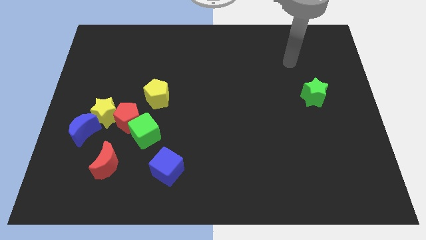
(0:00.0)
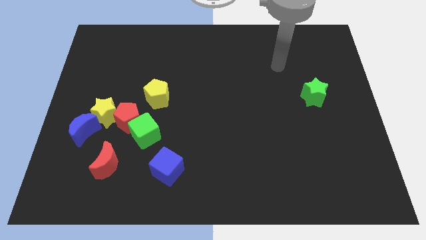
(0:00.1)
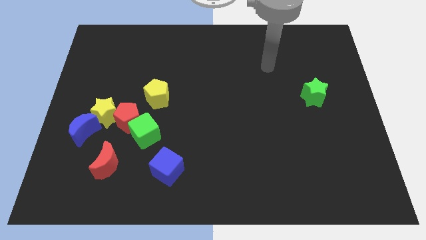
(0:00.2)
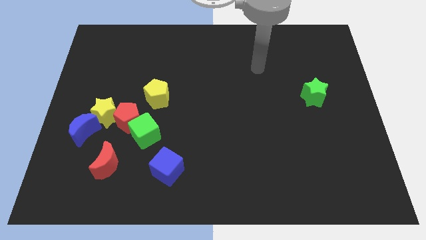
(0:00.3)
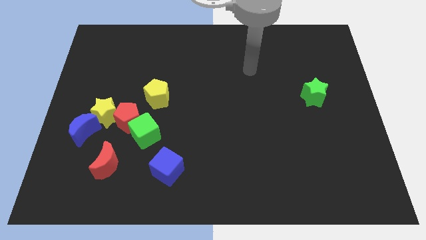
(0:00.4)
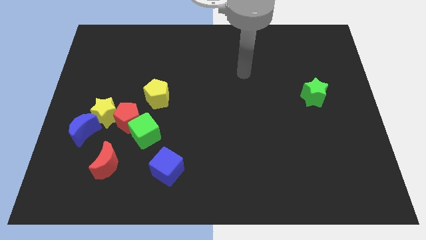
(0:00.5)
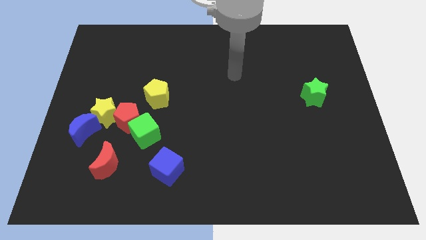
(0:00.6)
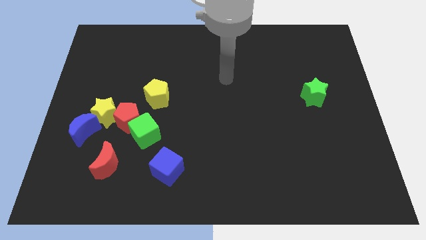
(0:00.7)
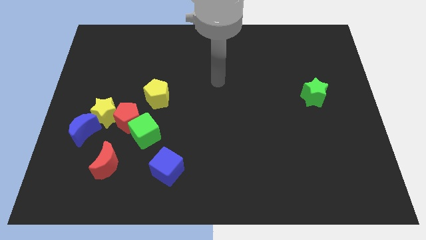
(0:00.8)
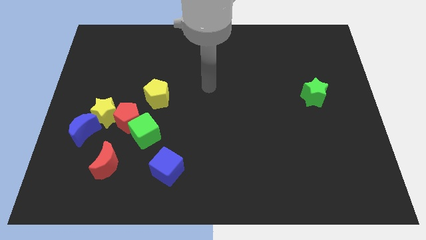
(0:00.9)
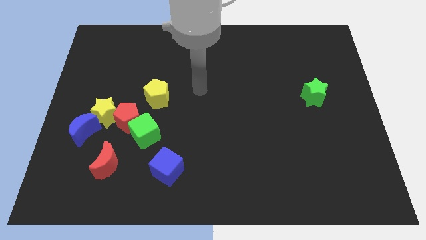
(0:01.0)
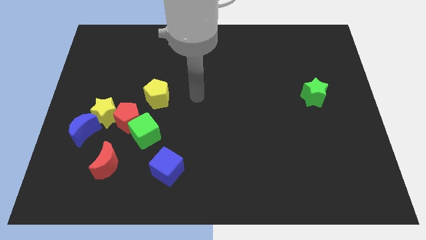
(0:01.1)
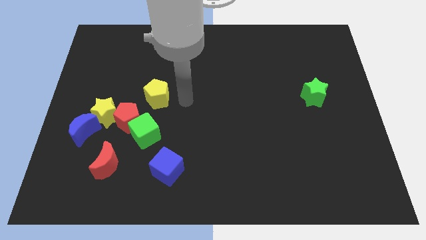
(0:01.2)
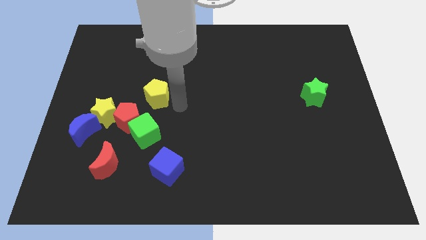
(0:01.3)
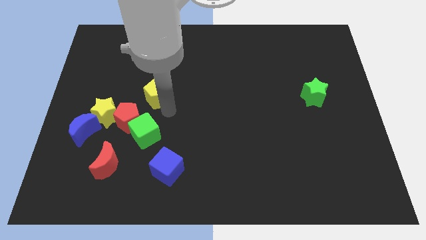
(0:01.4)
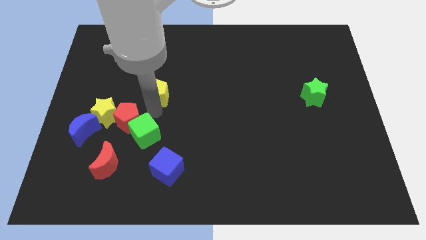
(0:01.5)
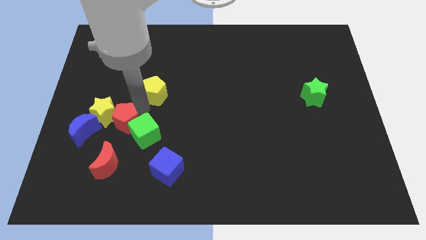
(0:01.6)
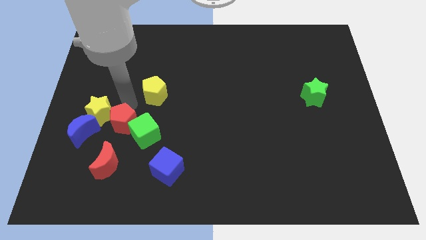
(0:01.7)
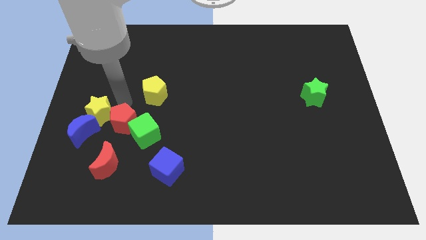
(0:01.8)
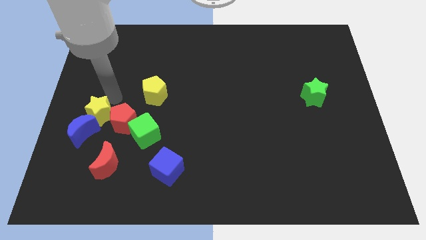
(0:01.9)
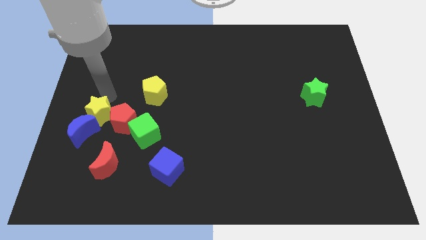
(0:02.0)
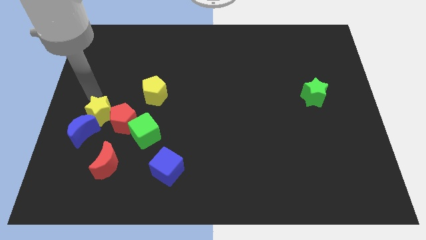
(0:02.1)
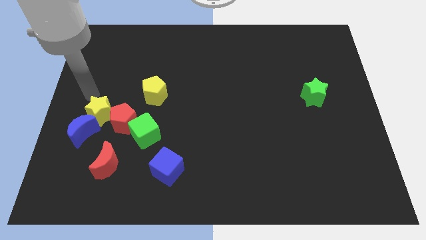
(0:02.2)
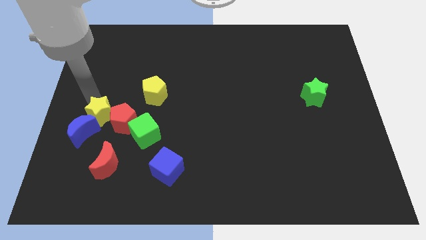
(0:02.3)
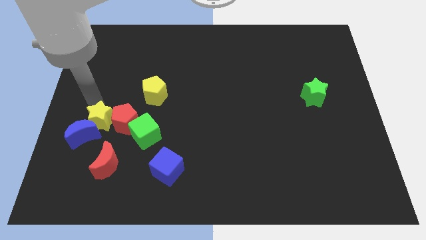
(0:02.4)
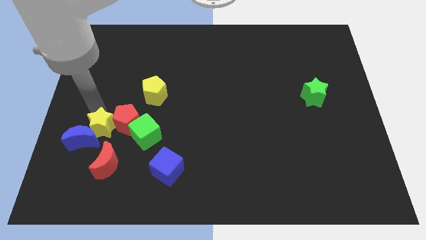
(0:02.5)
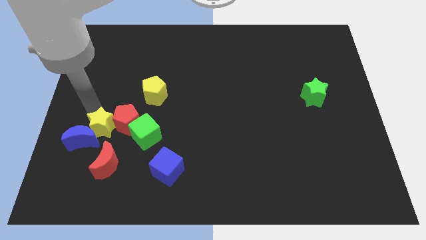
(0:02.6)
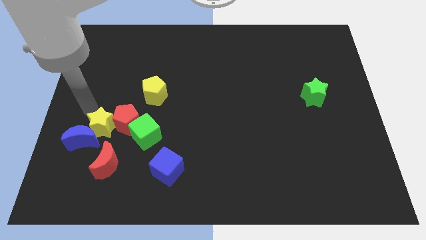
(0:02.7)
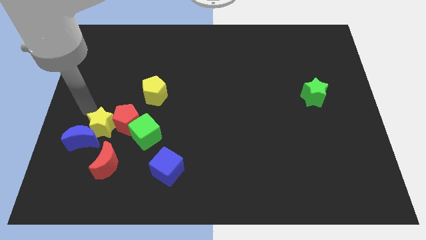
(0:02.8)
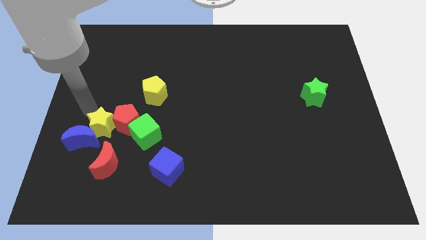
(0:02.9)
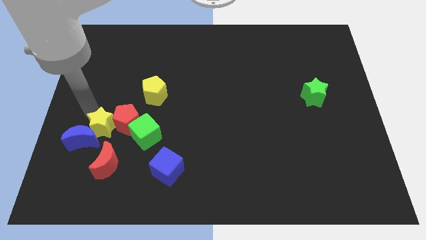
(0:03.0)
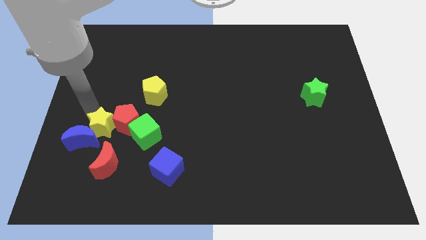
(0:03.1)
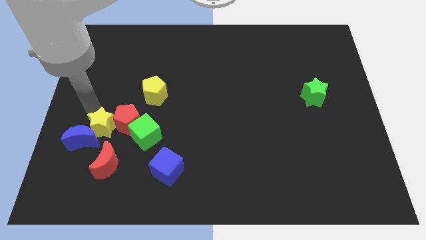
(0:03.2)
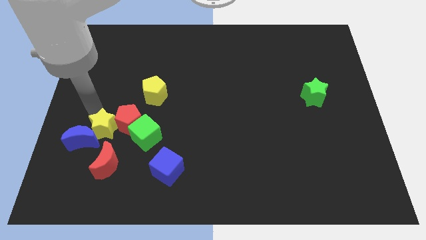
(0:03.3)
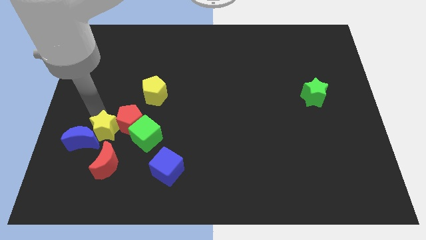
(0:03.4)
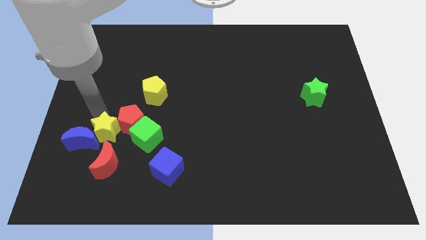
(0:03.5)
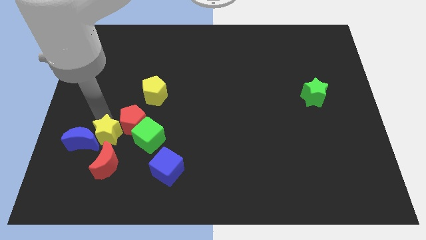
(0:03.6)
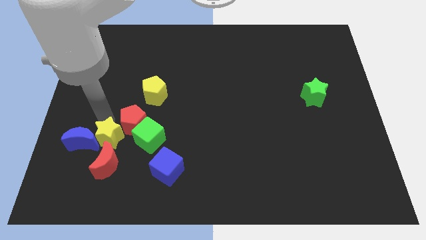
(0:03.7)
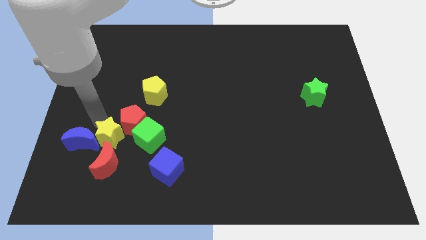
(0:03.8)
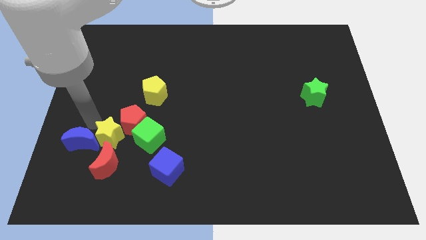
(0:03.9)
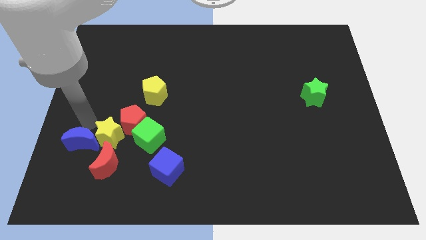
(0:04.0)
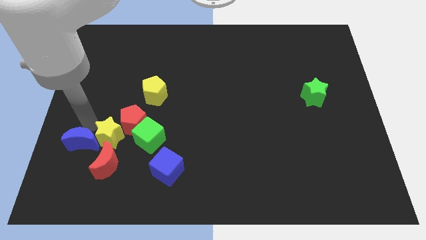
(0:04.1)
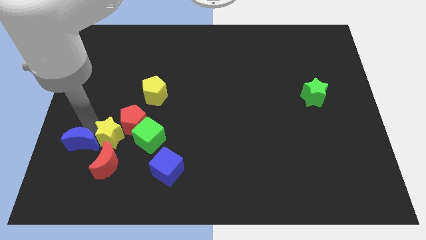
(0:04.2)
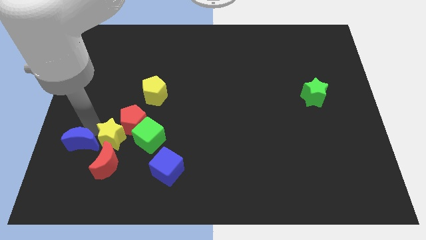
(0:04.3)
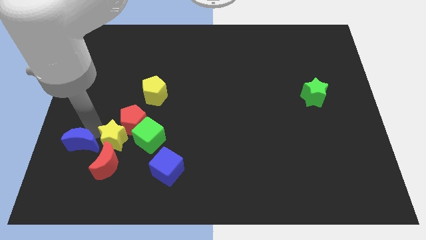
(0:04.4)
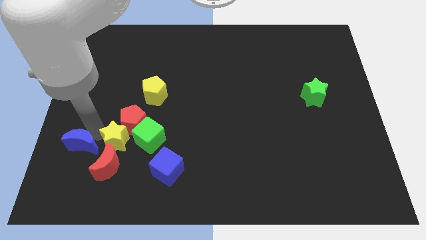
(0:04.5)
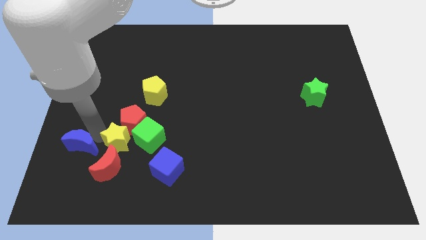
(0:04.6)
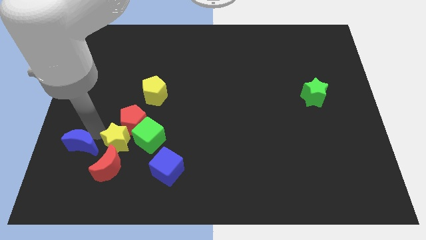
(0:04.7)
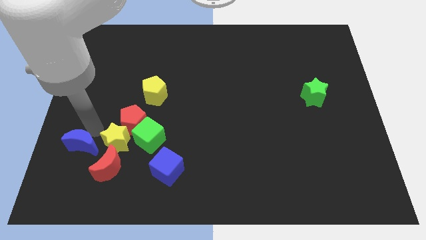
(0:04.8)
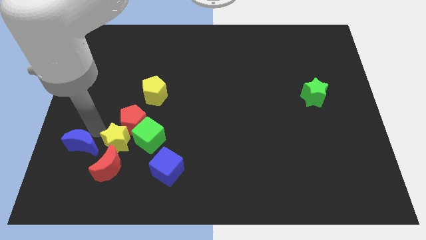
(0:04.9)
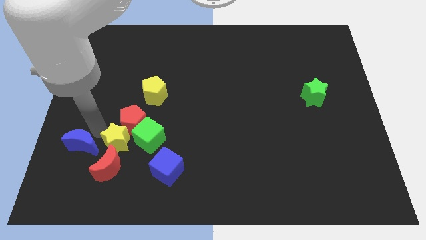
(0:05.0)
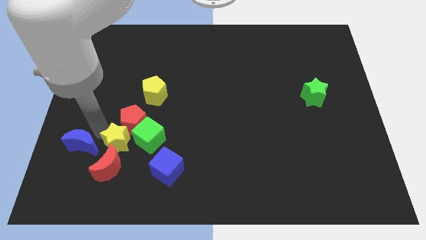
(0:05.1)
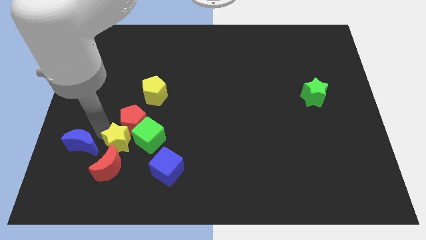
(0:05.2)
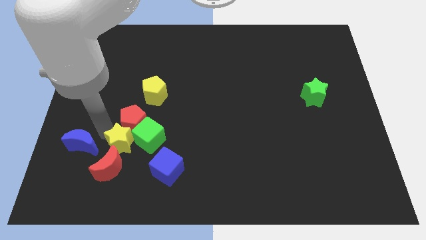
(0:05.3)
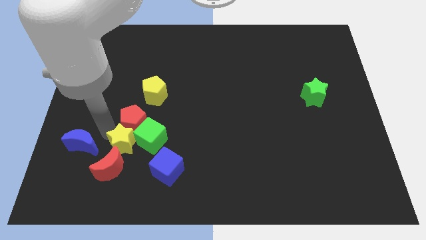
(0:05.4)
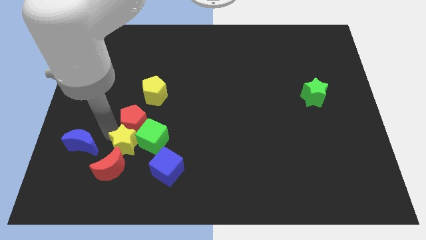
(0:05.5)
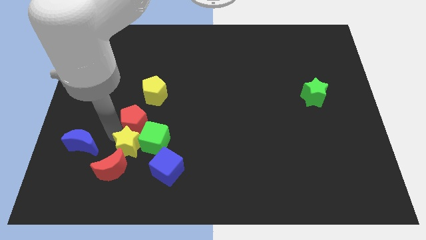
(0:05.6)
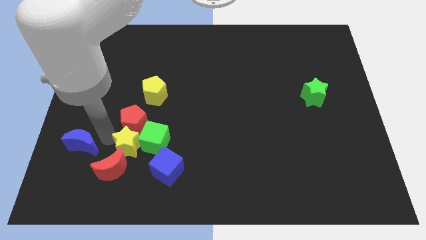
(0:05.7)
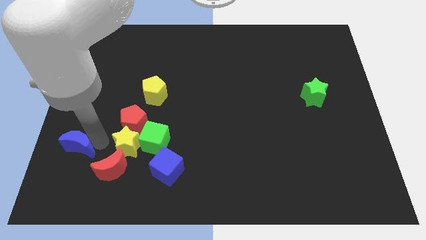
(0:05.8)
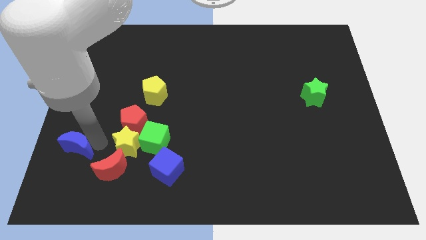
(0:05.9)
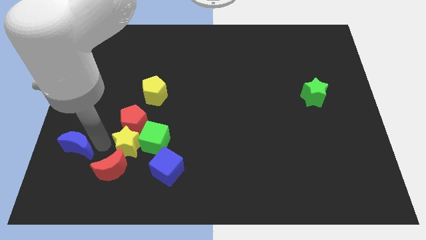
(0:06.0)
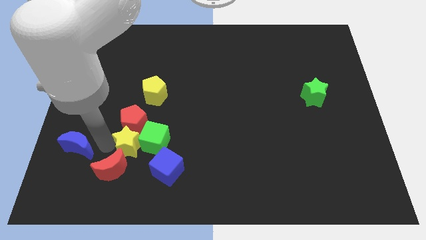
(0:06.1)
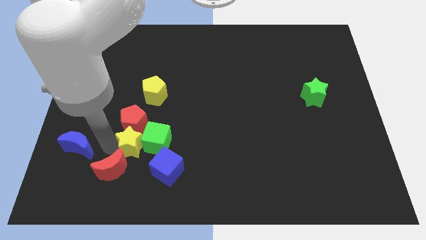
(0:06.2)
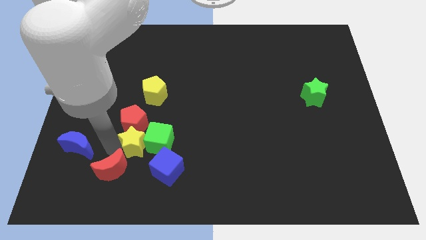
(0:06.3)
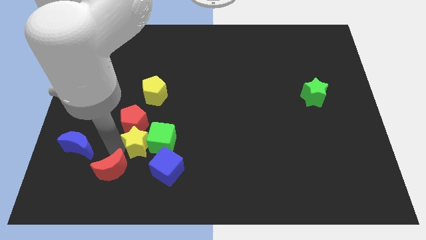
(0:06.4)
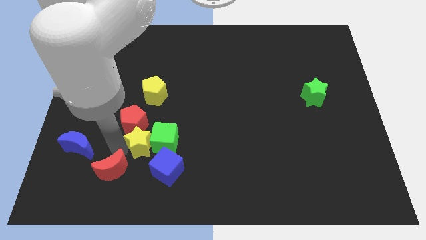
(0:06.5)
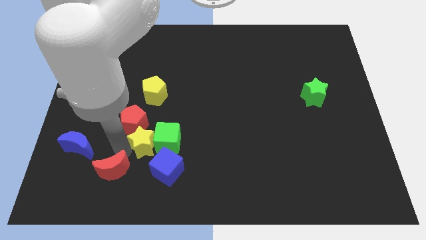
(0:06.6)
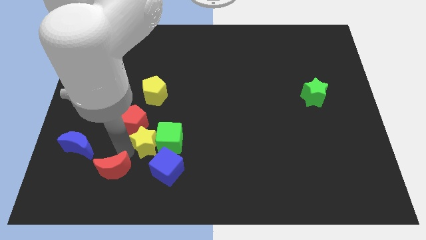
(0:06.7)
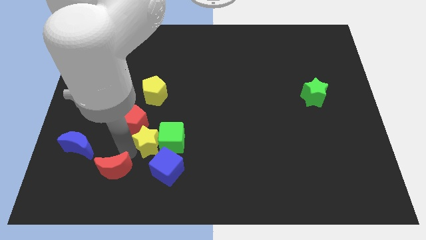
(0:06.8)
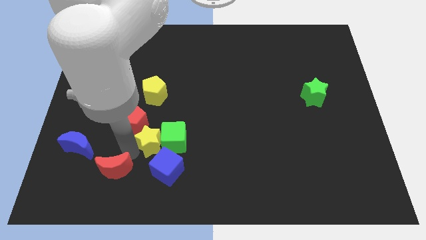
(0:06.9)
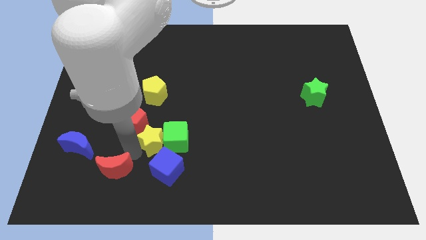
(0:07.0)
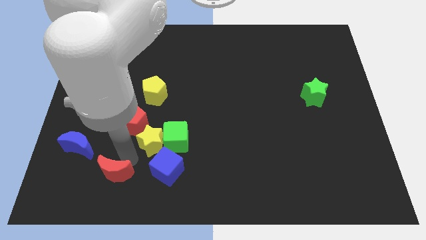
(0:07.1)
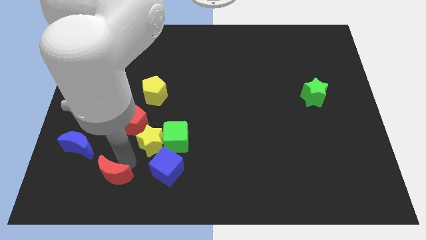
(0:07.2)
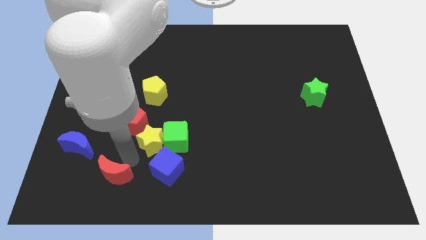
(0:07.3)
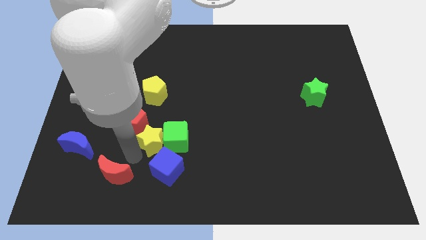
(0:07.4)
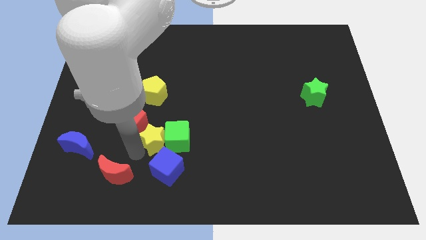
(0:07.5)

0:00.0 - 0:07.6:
slide the yellow star right of the red pentagon
